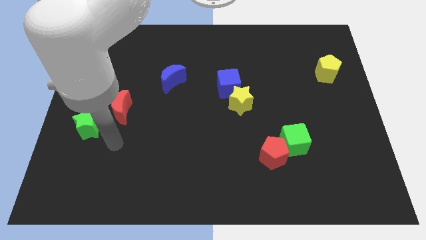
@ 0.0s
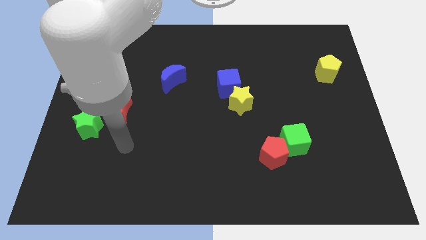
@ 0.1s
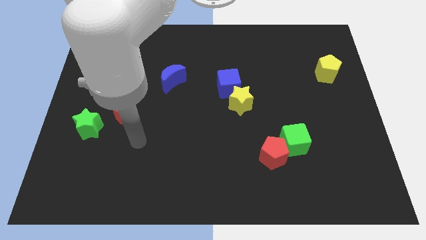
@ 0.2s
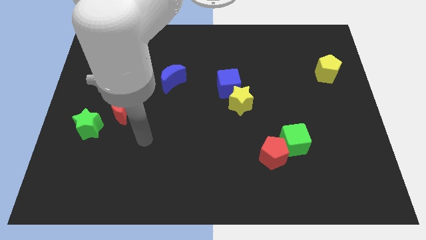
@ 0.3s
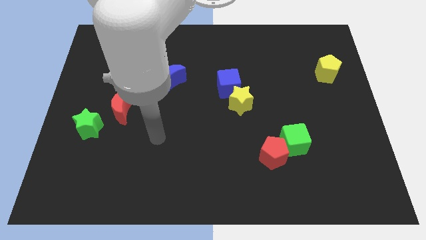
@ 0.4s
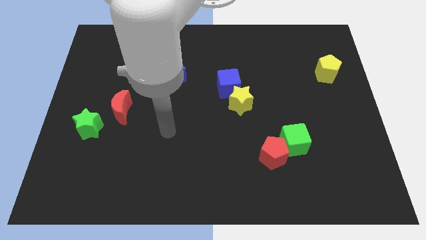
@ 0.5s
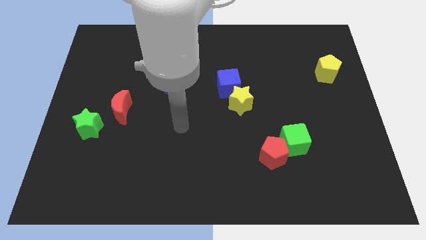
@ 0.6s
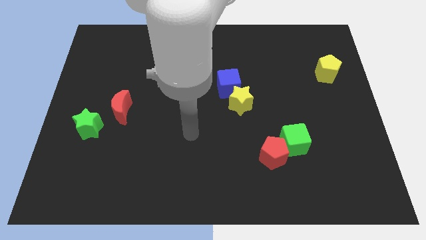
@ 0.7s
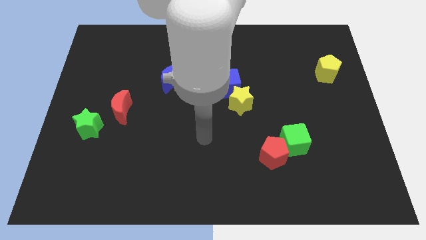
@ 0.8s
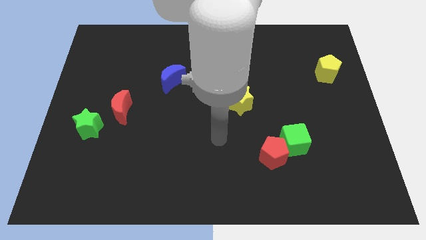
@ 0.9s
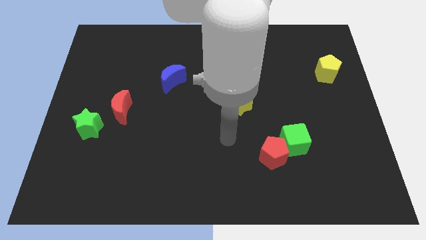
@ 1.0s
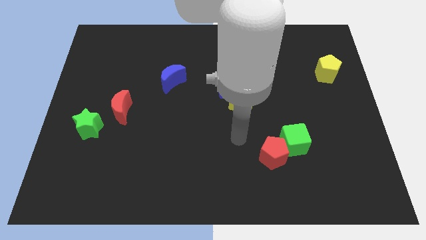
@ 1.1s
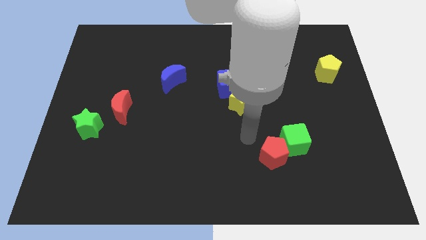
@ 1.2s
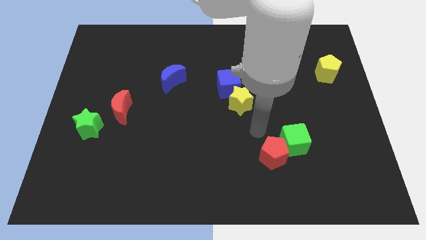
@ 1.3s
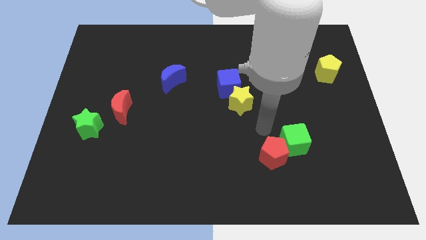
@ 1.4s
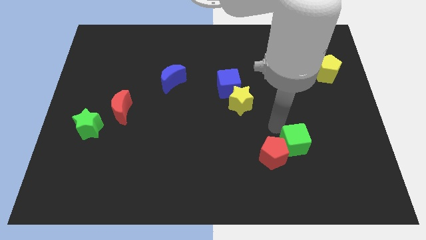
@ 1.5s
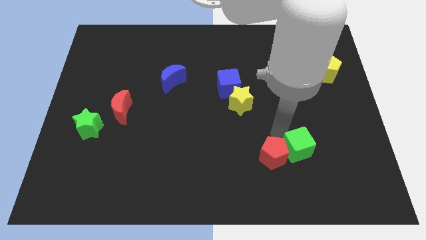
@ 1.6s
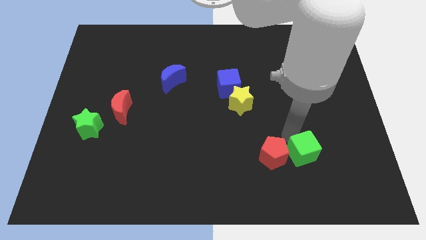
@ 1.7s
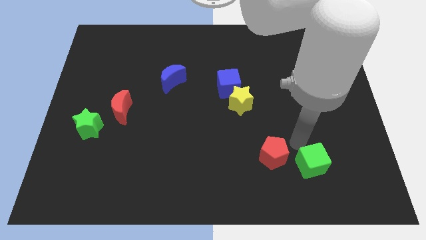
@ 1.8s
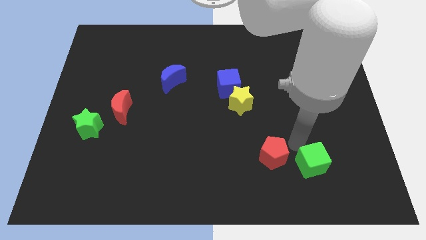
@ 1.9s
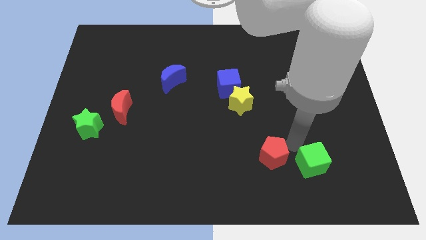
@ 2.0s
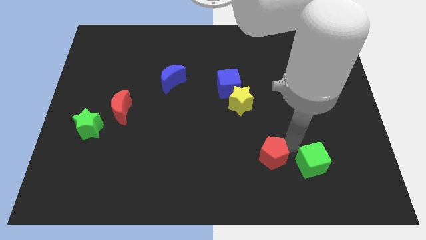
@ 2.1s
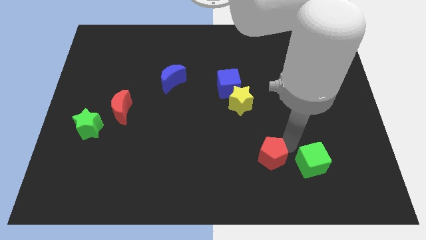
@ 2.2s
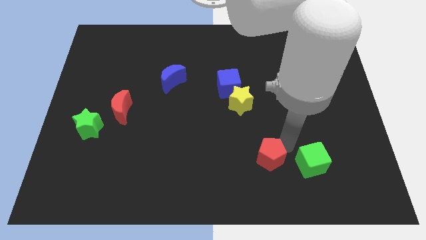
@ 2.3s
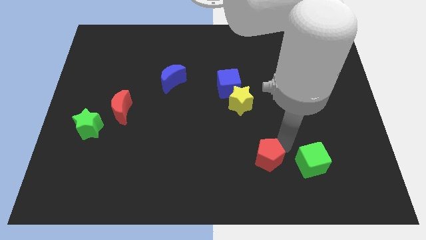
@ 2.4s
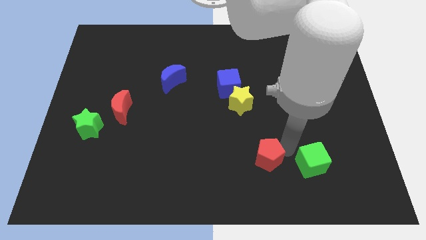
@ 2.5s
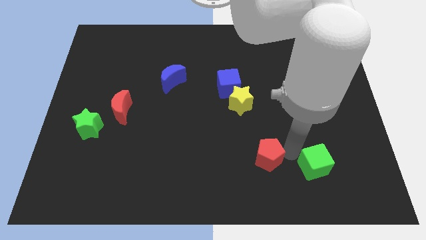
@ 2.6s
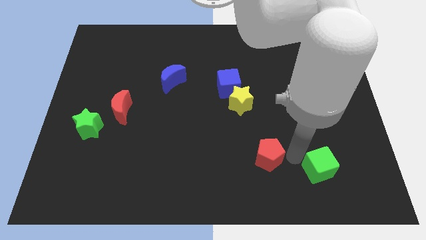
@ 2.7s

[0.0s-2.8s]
move the red pentagon away from the green cube

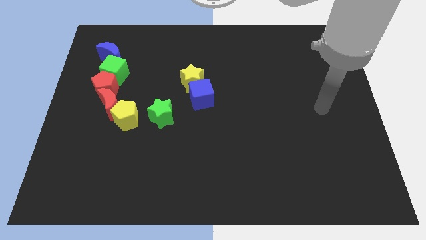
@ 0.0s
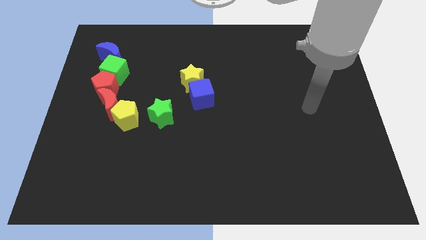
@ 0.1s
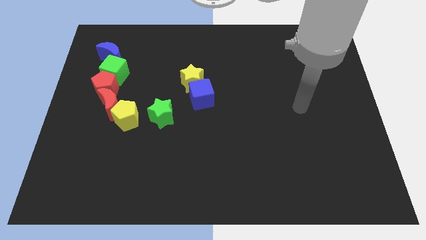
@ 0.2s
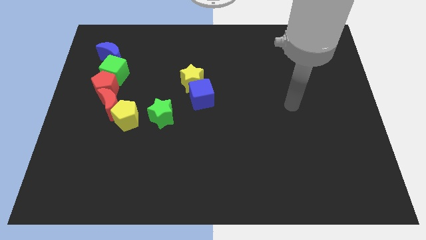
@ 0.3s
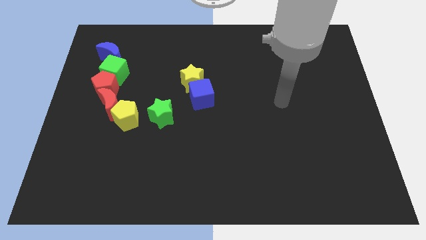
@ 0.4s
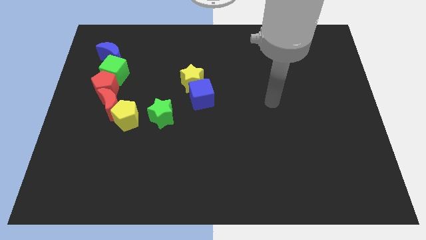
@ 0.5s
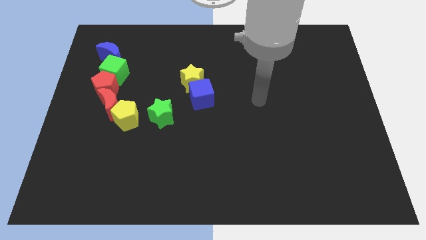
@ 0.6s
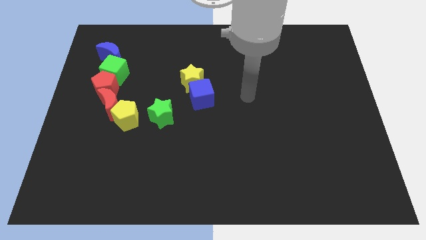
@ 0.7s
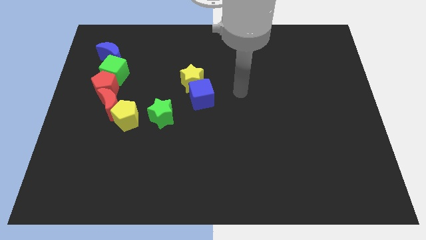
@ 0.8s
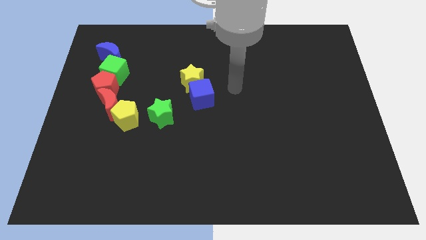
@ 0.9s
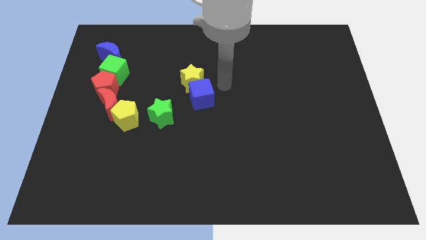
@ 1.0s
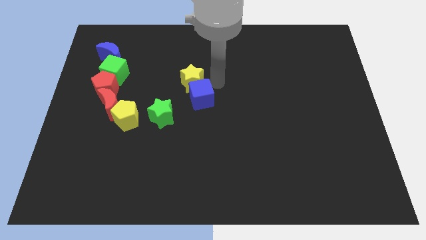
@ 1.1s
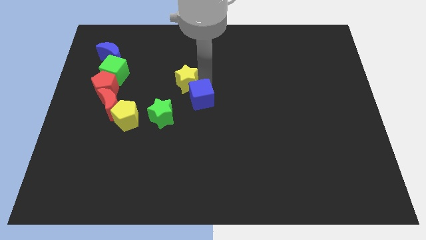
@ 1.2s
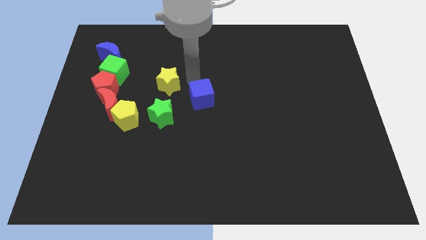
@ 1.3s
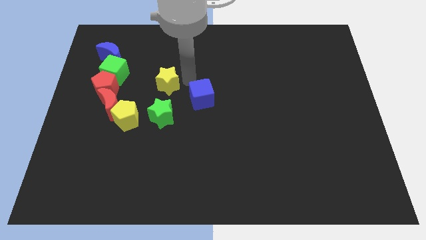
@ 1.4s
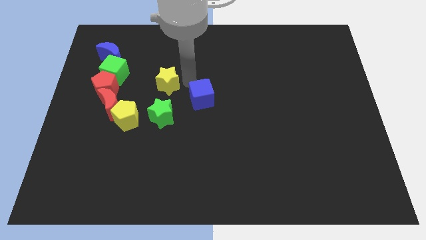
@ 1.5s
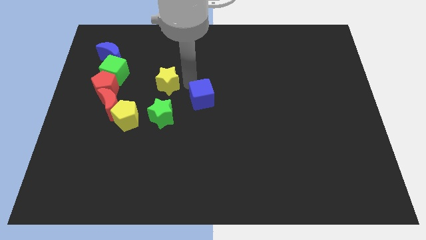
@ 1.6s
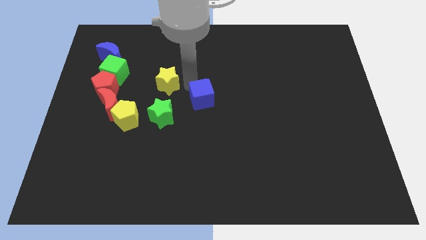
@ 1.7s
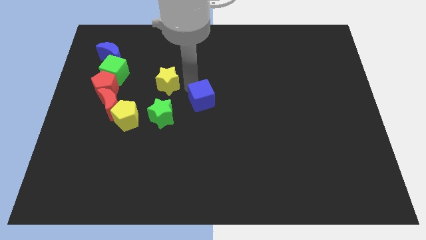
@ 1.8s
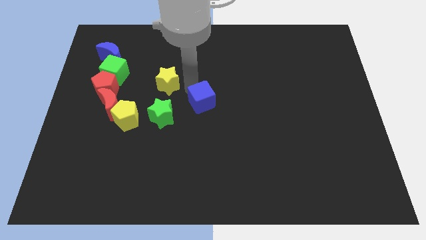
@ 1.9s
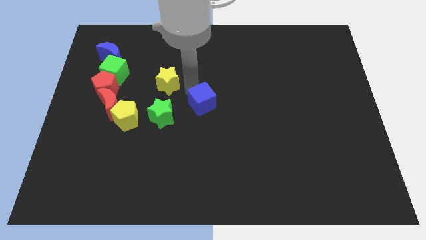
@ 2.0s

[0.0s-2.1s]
pull the blue cube apart from the yellow star

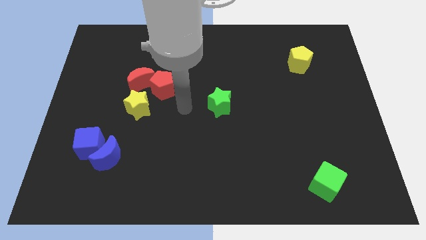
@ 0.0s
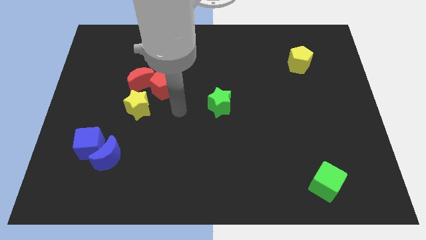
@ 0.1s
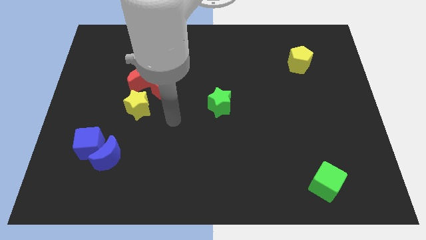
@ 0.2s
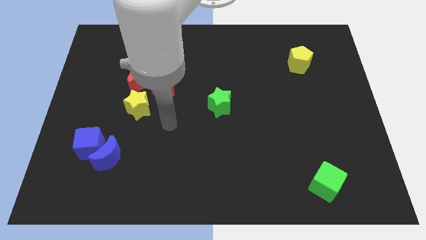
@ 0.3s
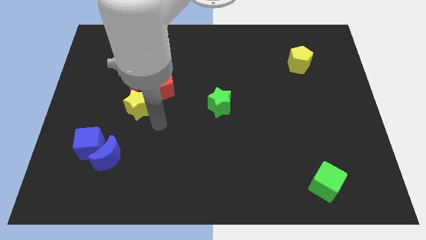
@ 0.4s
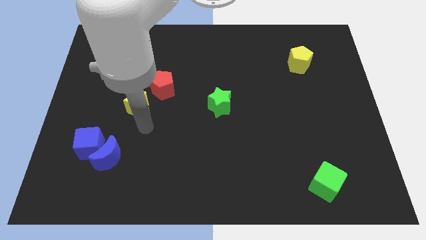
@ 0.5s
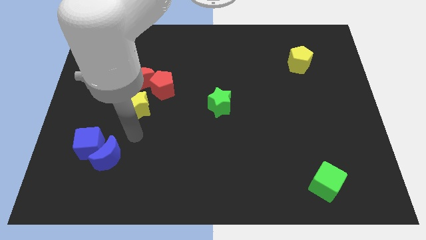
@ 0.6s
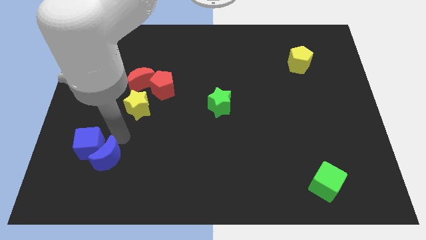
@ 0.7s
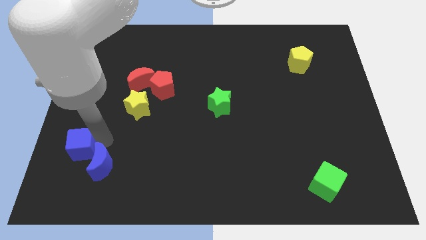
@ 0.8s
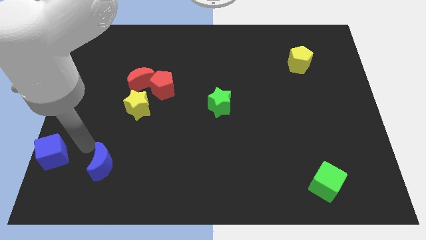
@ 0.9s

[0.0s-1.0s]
move the blue moon away from the blue cube

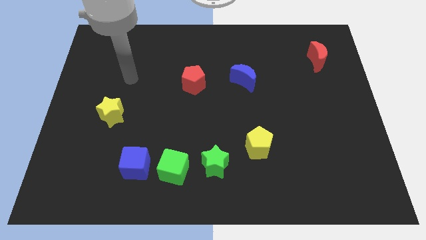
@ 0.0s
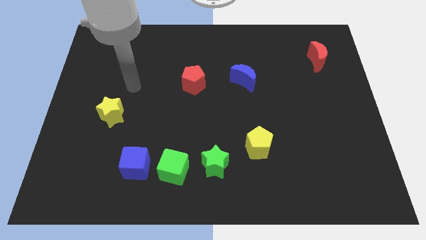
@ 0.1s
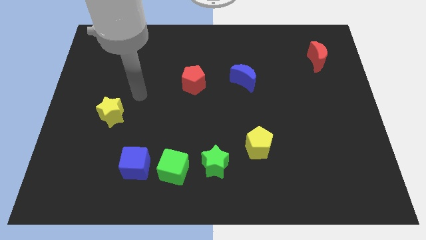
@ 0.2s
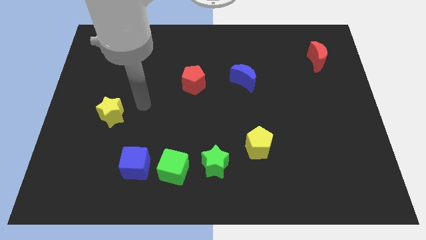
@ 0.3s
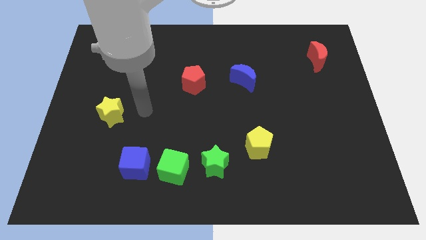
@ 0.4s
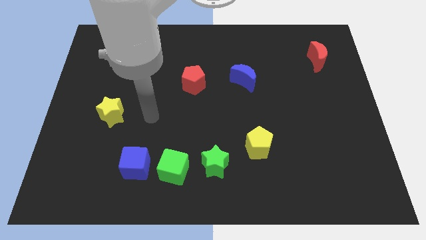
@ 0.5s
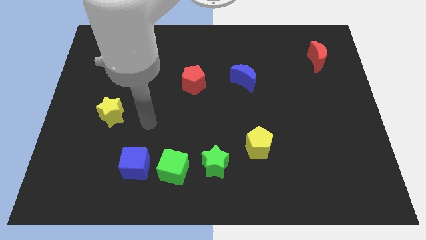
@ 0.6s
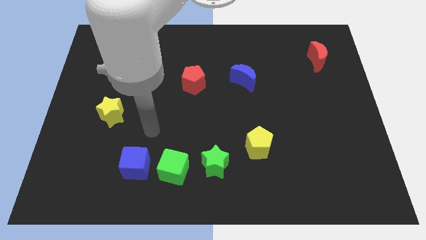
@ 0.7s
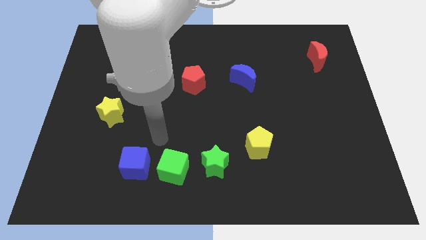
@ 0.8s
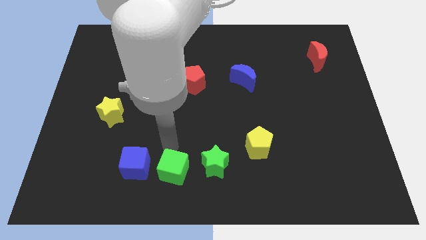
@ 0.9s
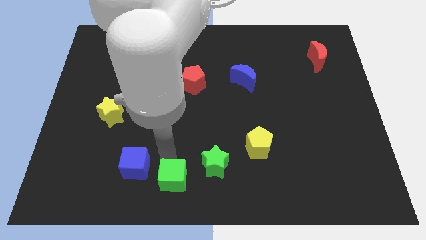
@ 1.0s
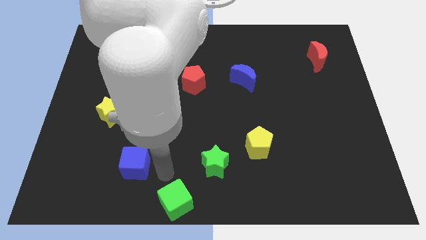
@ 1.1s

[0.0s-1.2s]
move the blue cube away from the green cube

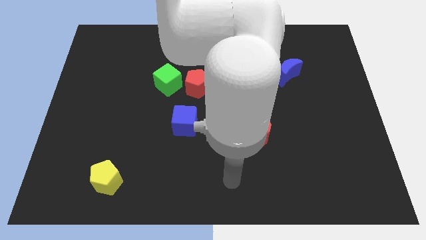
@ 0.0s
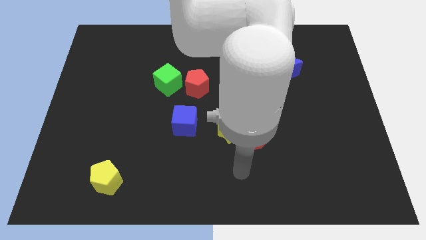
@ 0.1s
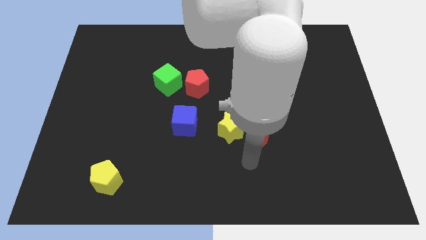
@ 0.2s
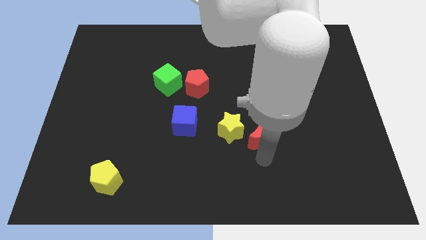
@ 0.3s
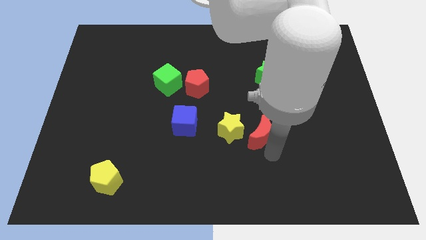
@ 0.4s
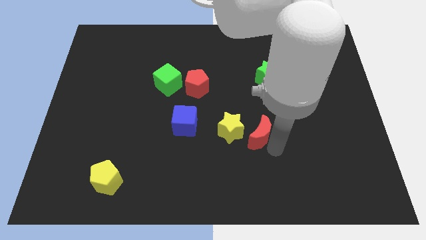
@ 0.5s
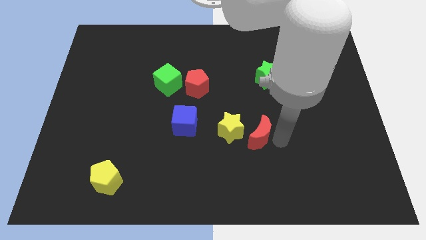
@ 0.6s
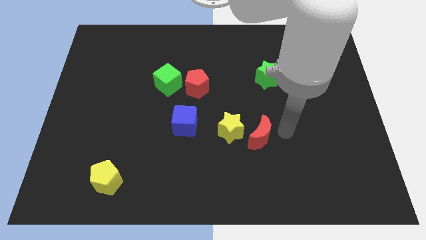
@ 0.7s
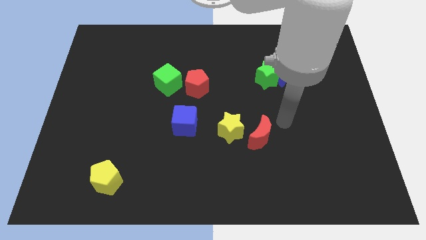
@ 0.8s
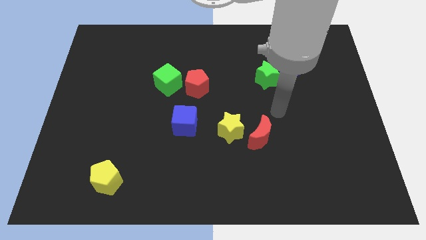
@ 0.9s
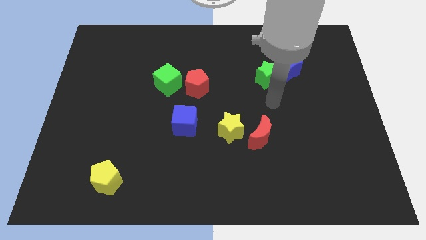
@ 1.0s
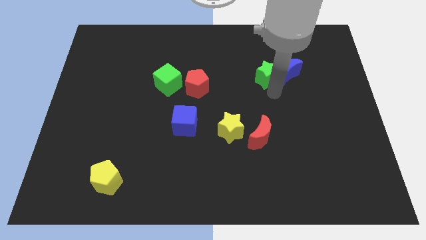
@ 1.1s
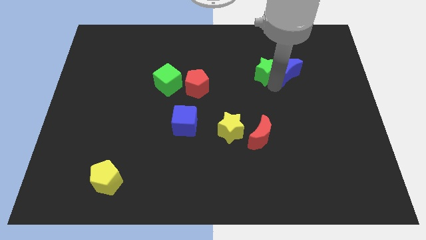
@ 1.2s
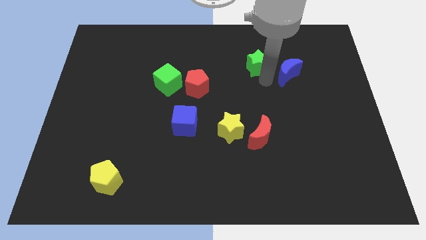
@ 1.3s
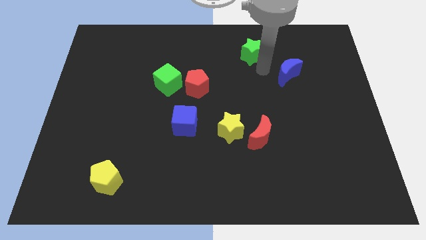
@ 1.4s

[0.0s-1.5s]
move the blue moon away from the green star

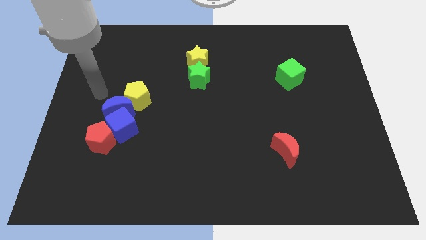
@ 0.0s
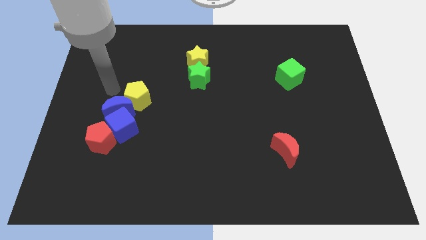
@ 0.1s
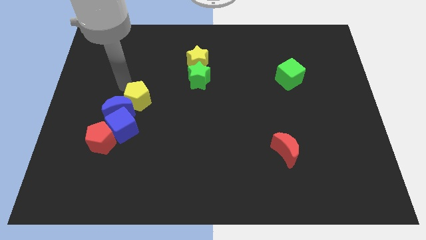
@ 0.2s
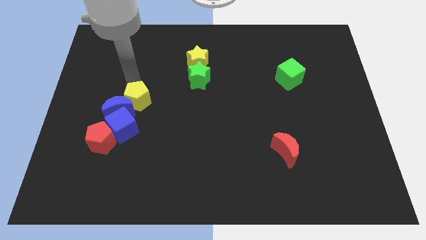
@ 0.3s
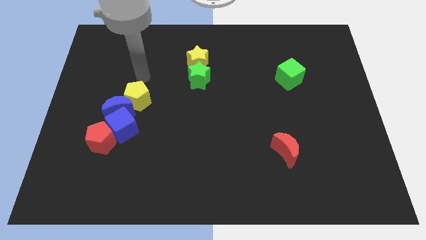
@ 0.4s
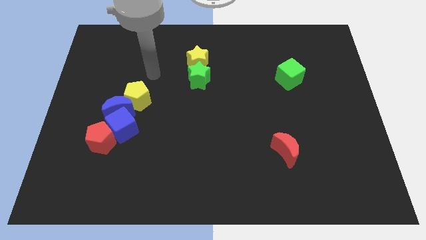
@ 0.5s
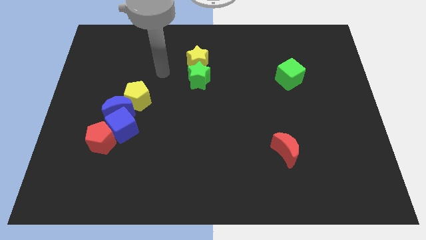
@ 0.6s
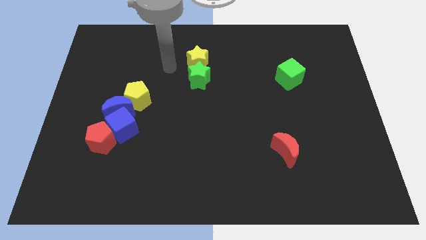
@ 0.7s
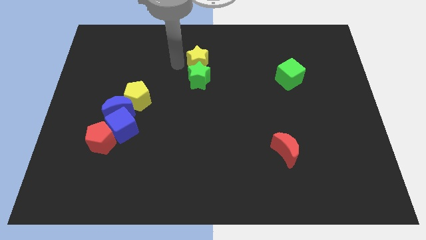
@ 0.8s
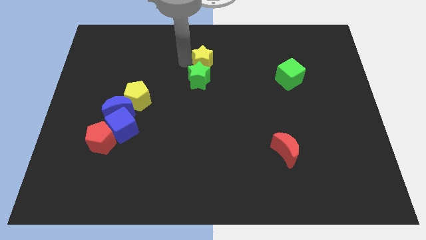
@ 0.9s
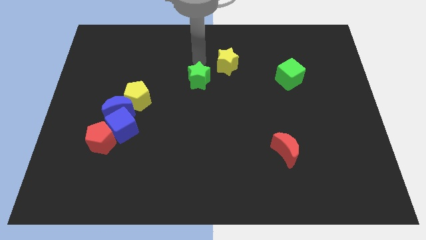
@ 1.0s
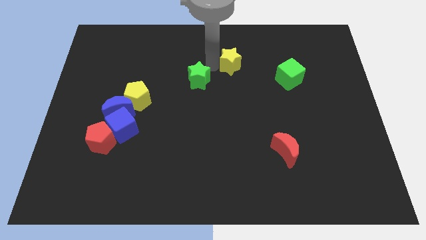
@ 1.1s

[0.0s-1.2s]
pull the green star apart from the yellow star
